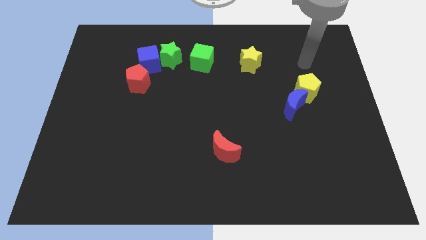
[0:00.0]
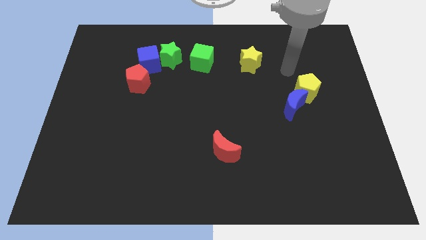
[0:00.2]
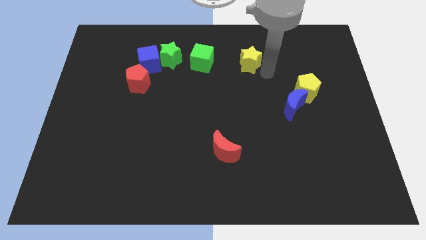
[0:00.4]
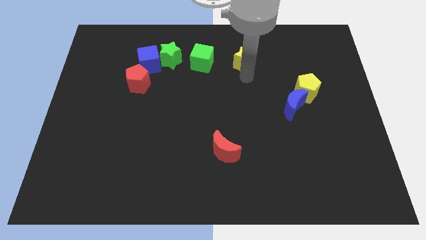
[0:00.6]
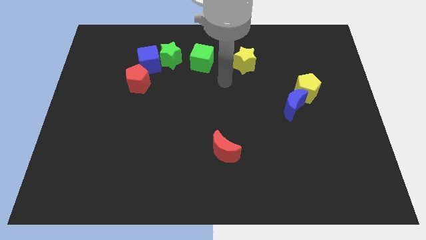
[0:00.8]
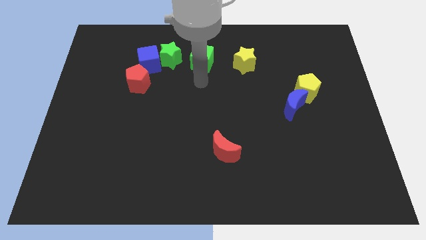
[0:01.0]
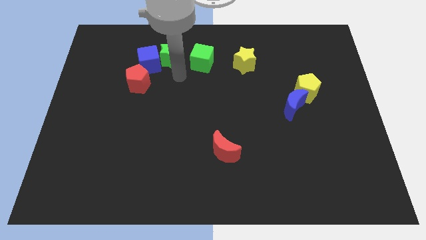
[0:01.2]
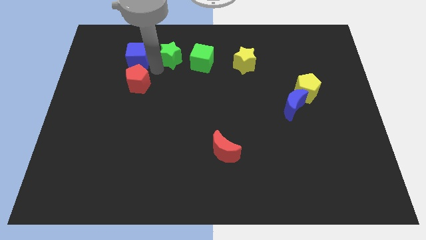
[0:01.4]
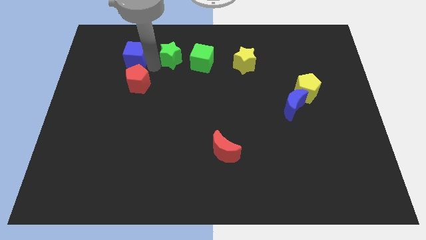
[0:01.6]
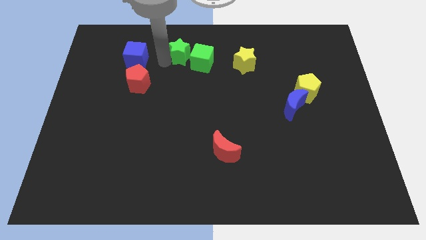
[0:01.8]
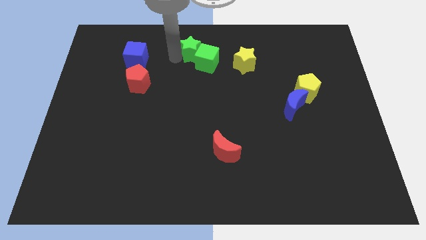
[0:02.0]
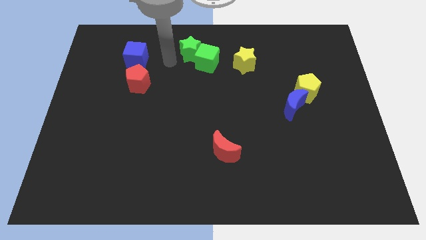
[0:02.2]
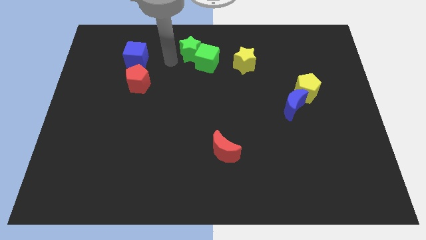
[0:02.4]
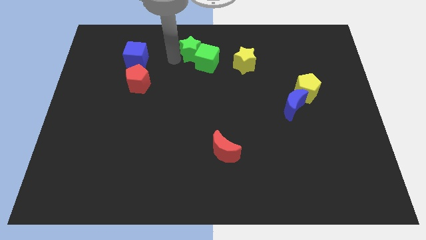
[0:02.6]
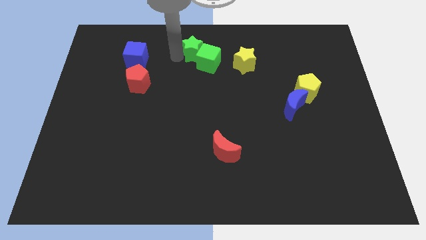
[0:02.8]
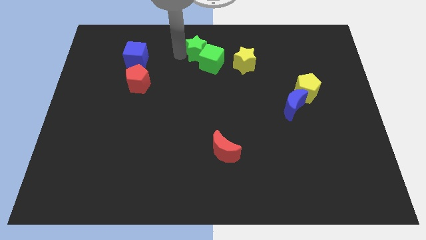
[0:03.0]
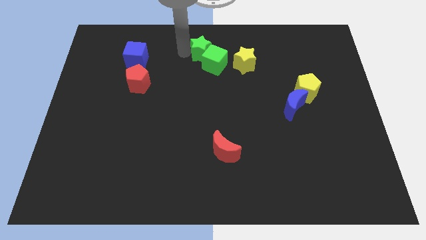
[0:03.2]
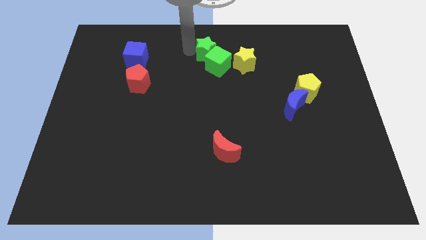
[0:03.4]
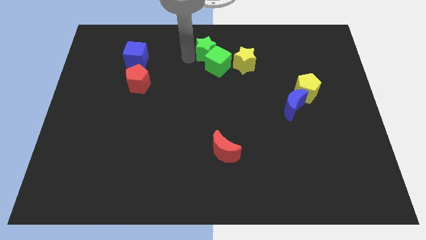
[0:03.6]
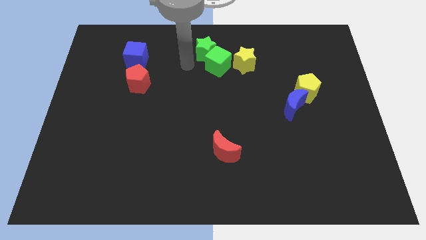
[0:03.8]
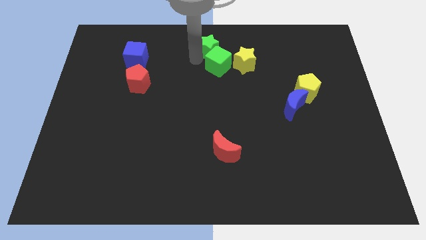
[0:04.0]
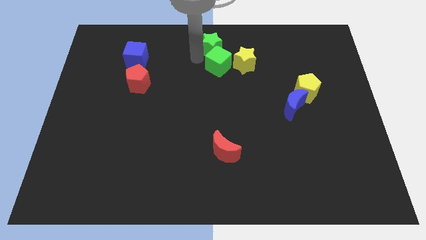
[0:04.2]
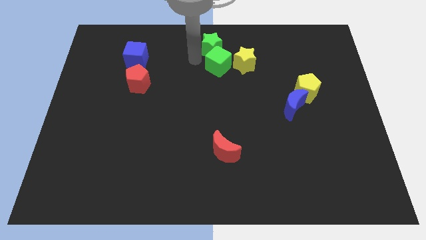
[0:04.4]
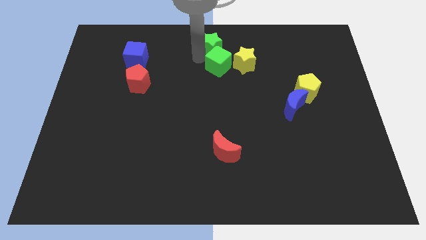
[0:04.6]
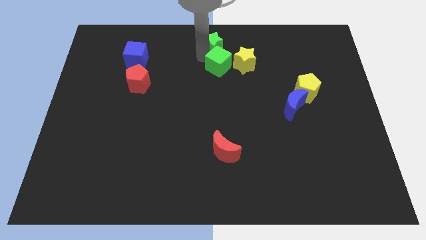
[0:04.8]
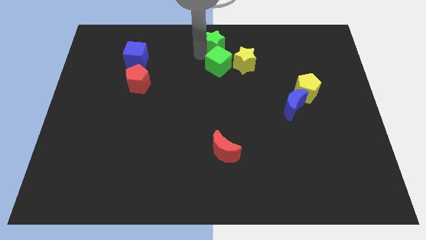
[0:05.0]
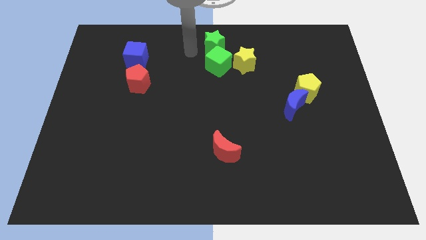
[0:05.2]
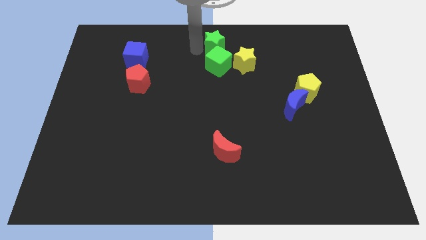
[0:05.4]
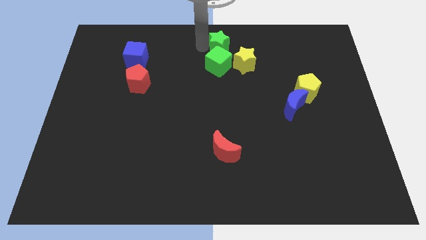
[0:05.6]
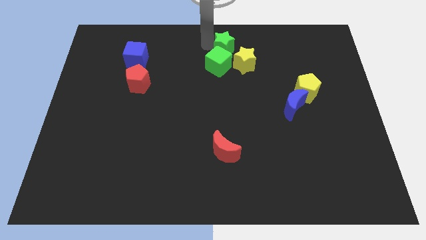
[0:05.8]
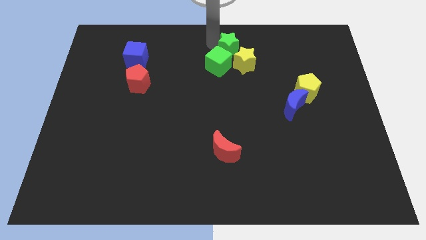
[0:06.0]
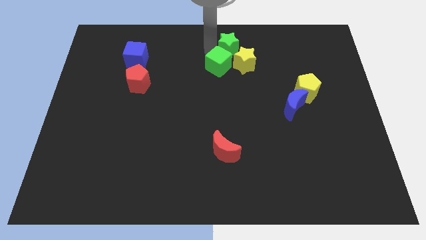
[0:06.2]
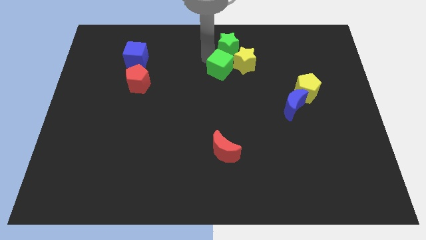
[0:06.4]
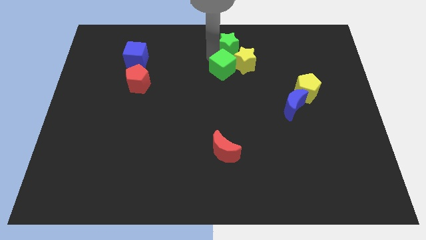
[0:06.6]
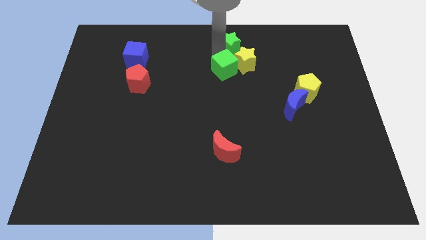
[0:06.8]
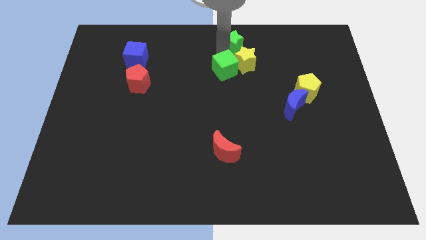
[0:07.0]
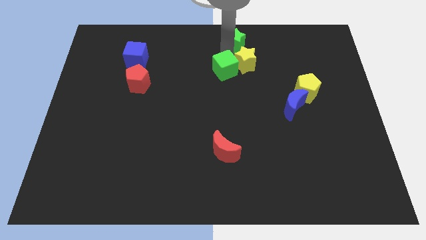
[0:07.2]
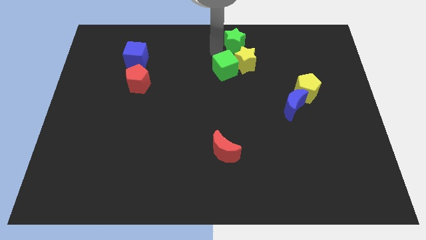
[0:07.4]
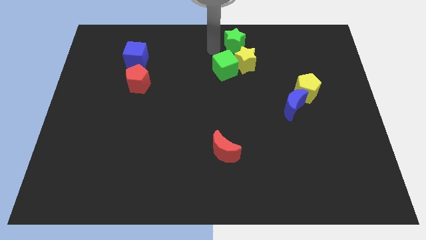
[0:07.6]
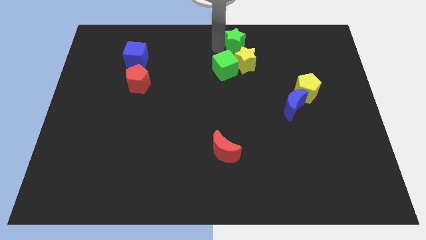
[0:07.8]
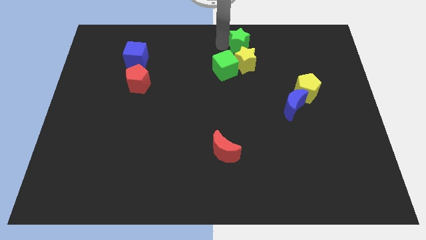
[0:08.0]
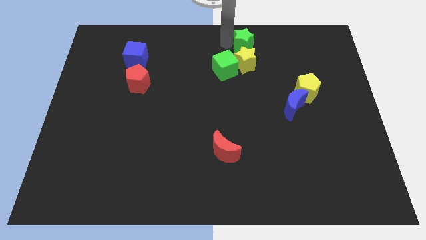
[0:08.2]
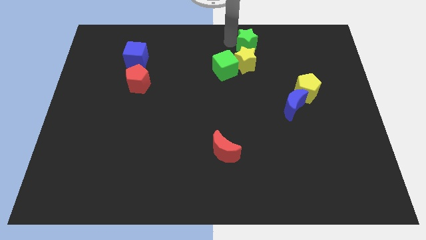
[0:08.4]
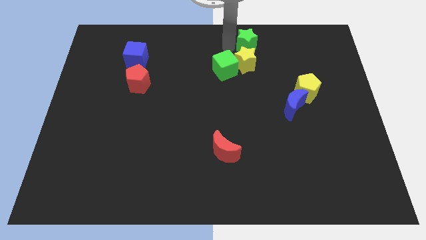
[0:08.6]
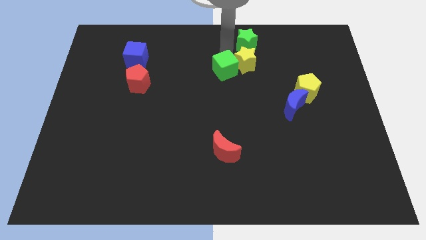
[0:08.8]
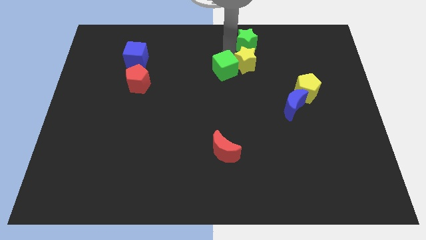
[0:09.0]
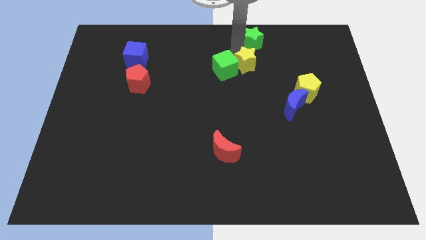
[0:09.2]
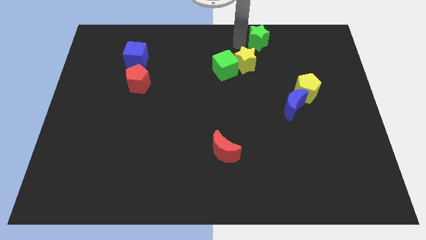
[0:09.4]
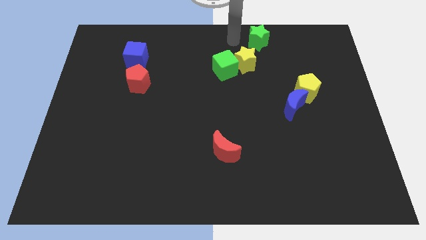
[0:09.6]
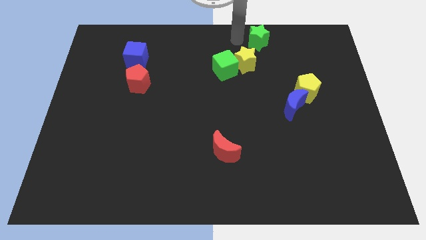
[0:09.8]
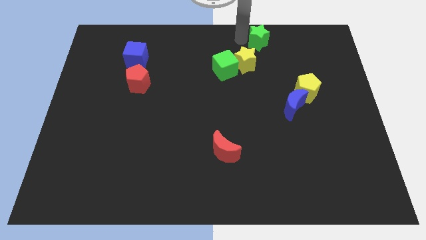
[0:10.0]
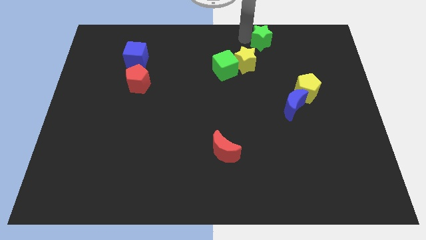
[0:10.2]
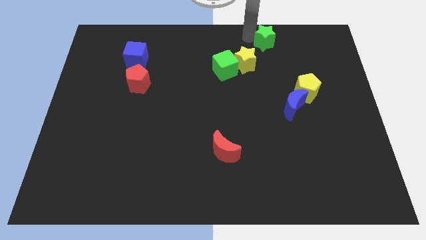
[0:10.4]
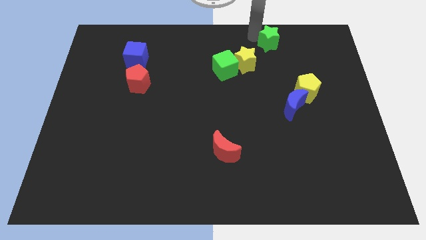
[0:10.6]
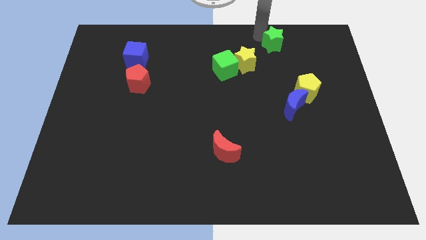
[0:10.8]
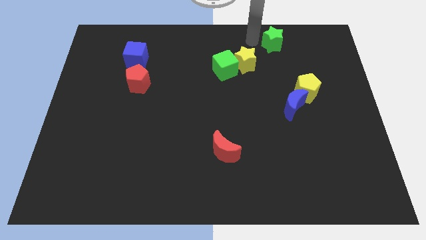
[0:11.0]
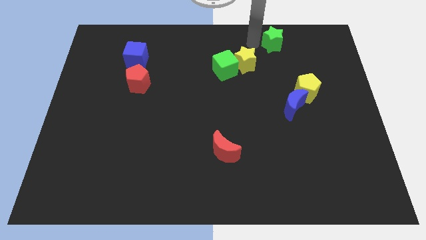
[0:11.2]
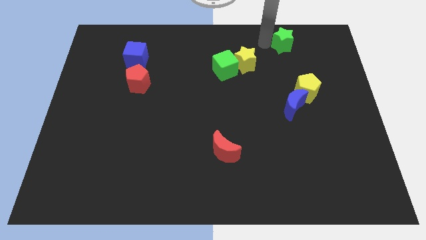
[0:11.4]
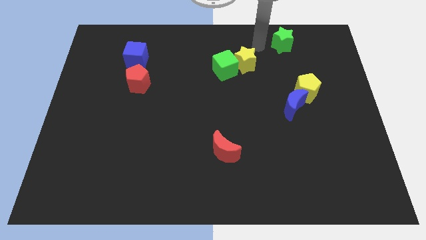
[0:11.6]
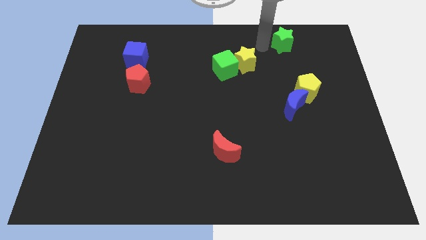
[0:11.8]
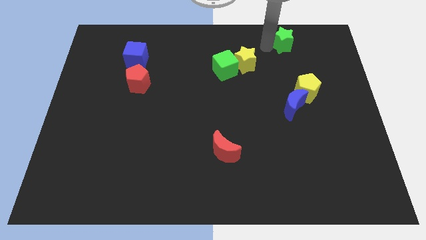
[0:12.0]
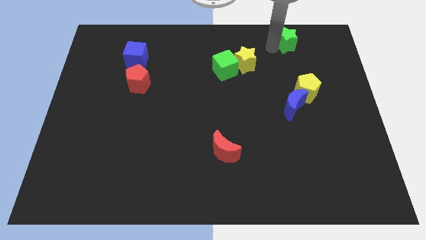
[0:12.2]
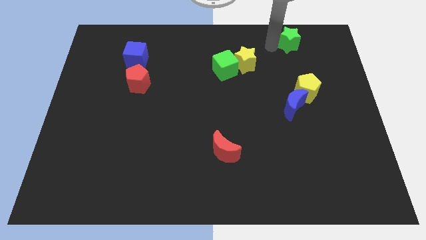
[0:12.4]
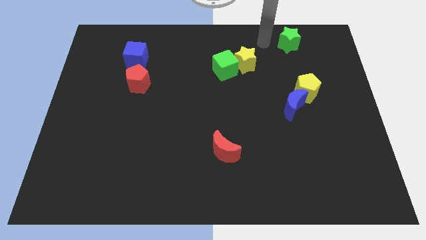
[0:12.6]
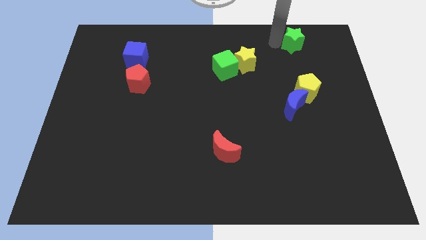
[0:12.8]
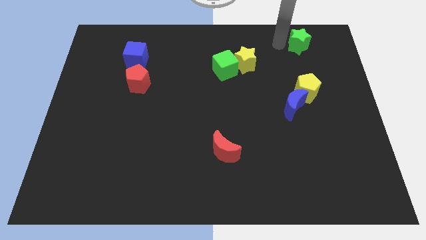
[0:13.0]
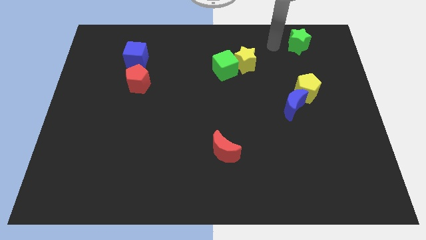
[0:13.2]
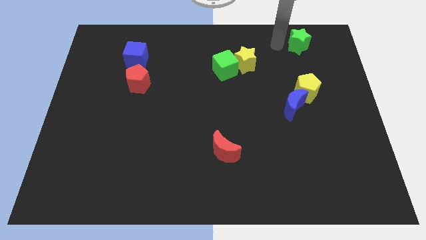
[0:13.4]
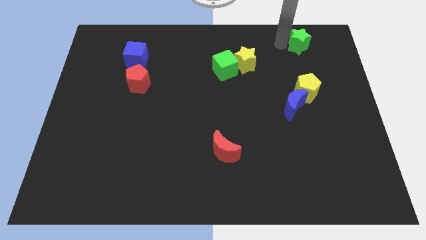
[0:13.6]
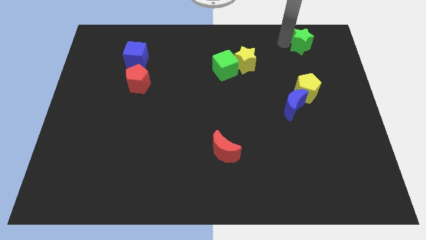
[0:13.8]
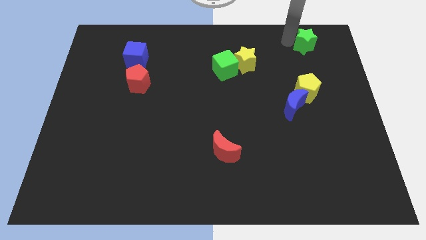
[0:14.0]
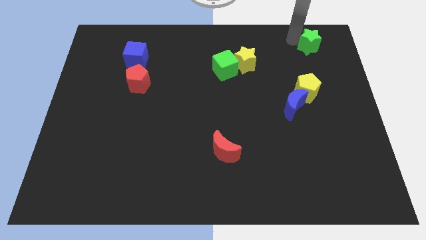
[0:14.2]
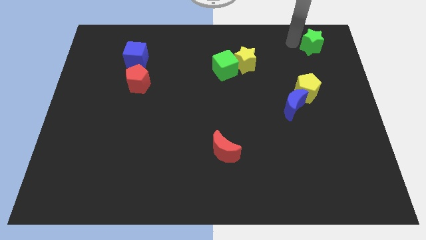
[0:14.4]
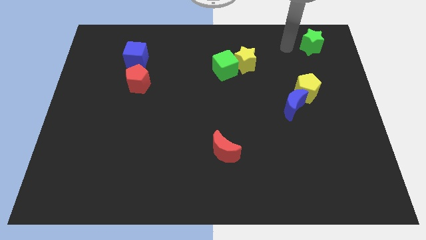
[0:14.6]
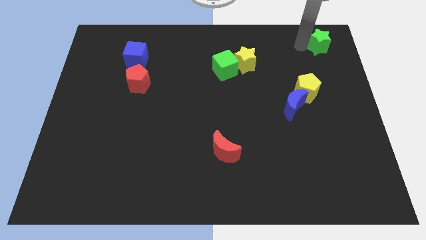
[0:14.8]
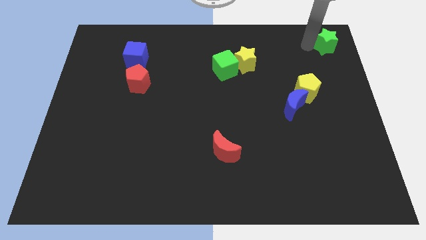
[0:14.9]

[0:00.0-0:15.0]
put the green star to the upper right corner

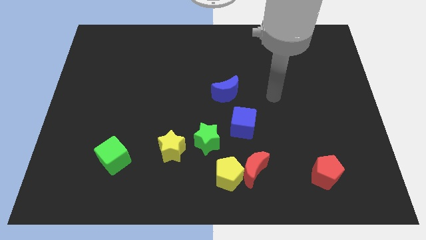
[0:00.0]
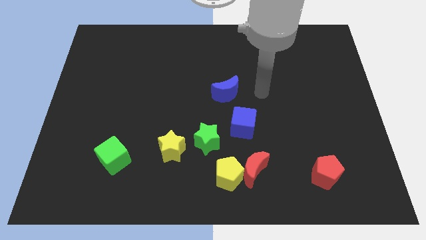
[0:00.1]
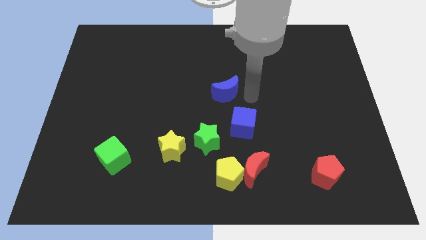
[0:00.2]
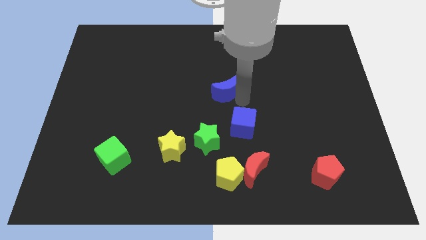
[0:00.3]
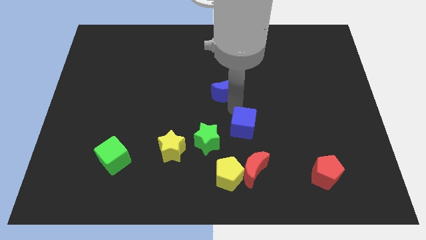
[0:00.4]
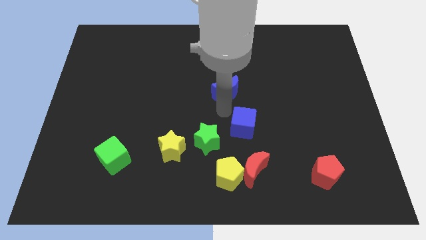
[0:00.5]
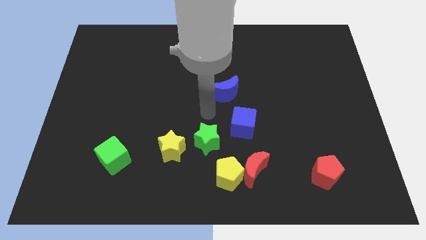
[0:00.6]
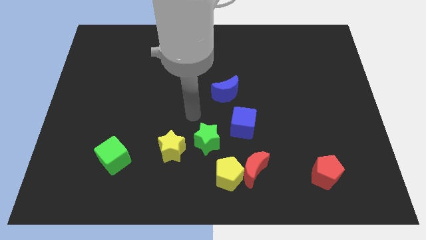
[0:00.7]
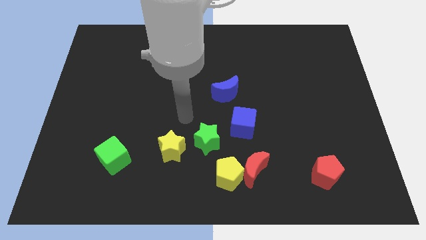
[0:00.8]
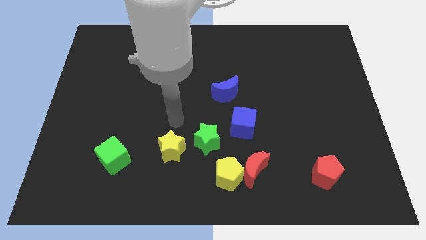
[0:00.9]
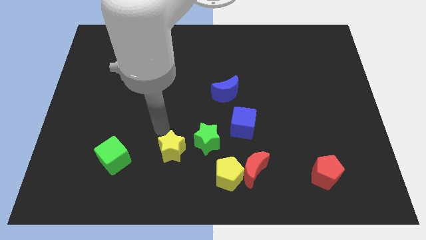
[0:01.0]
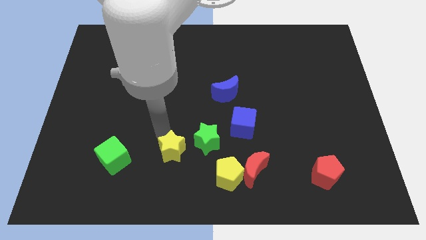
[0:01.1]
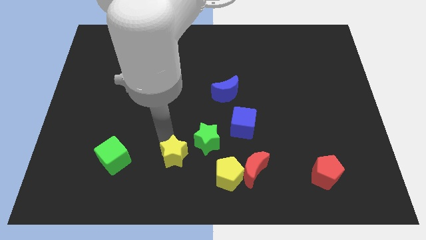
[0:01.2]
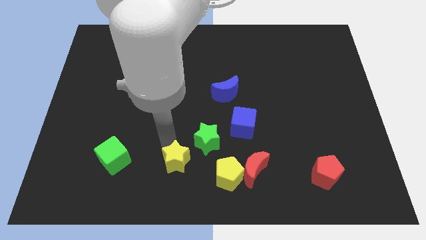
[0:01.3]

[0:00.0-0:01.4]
put the yellow star to the bottom
